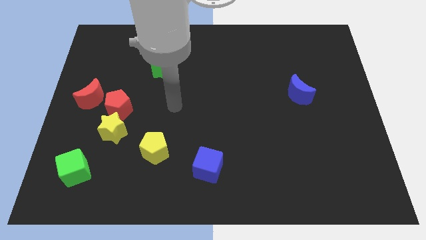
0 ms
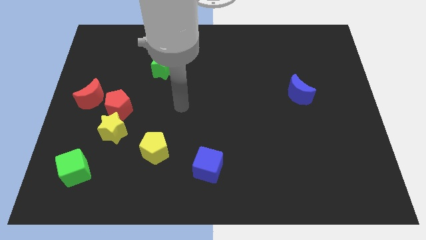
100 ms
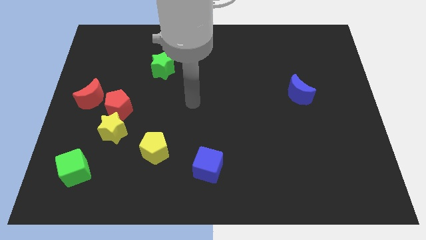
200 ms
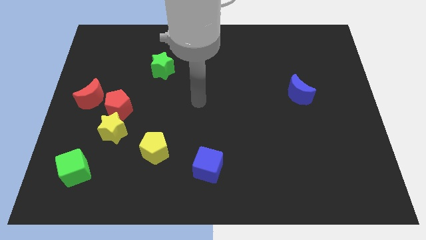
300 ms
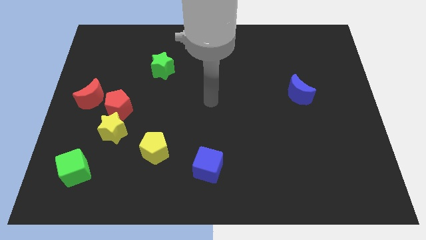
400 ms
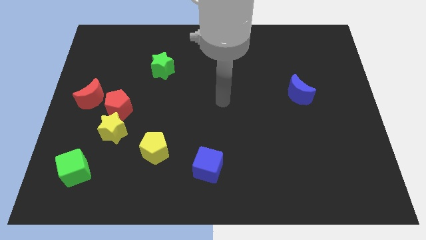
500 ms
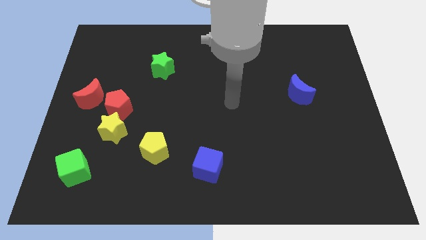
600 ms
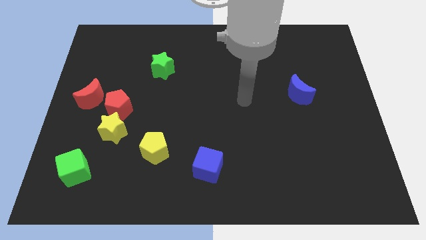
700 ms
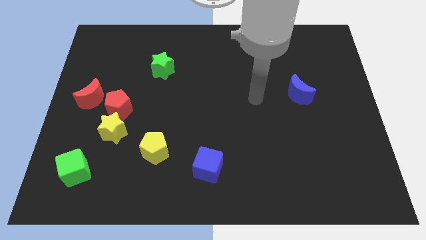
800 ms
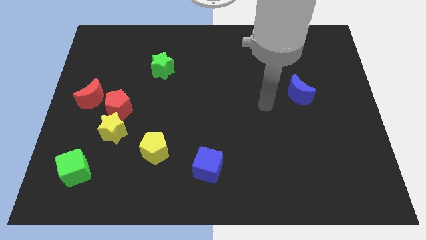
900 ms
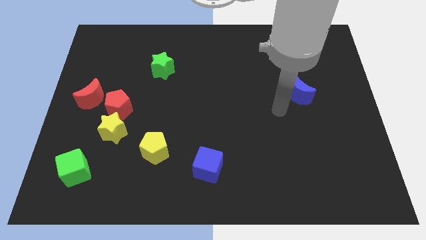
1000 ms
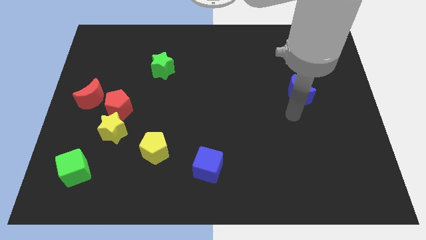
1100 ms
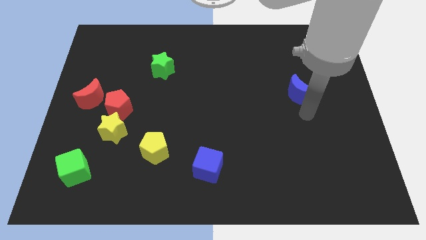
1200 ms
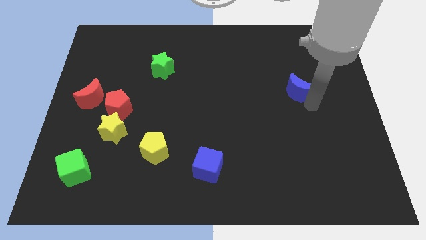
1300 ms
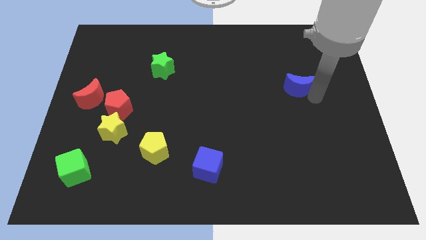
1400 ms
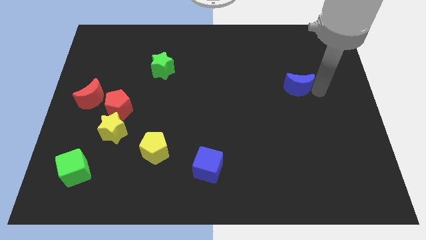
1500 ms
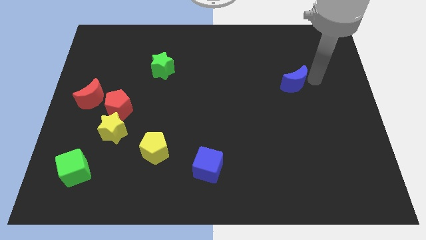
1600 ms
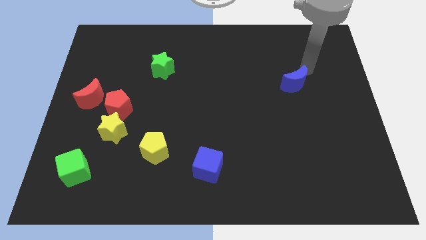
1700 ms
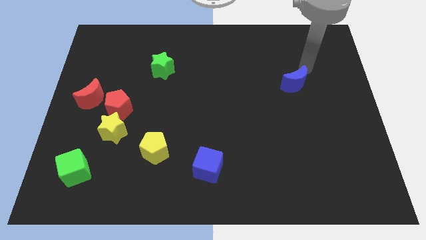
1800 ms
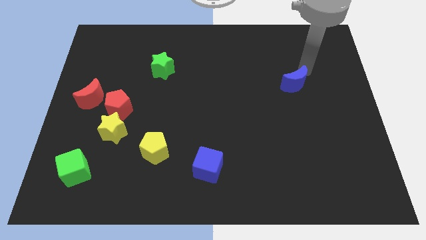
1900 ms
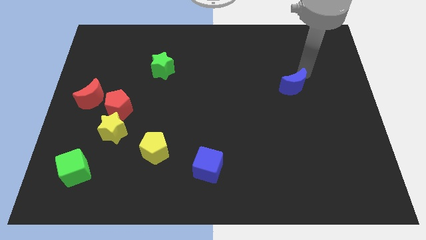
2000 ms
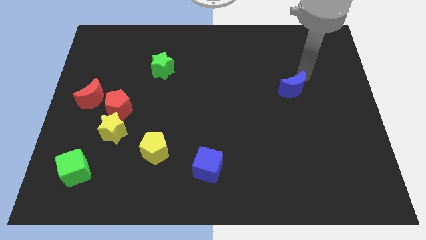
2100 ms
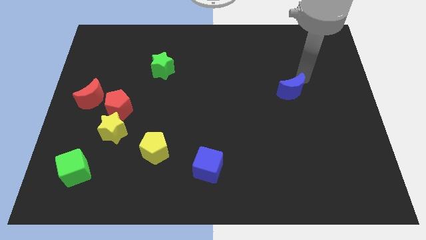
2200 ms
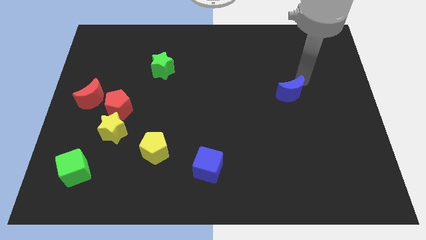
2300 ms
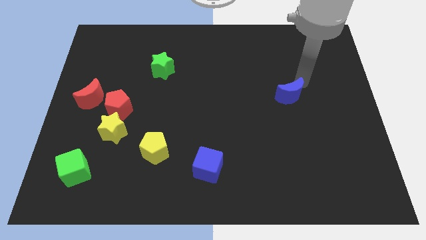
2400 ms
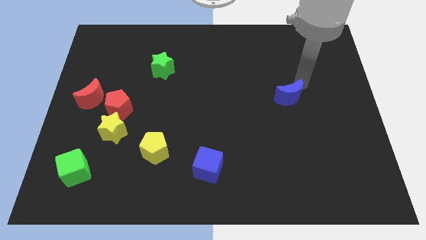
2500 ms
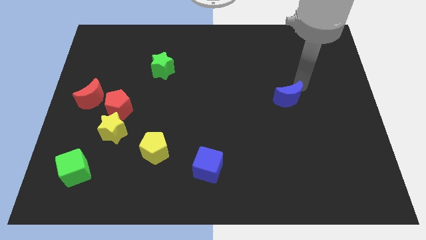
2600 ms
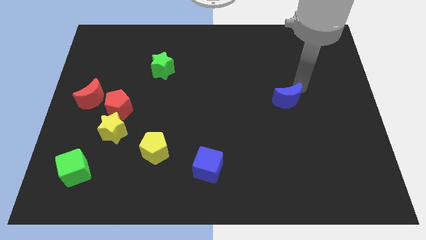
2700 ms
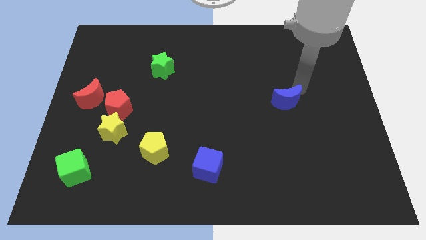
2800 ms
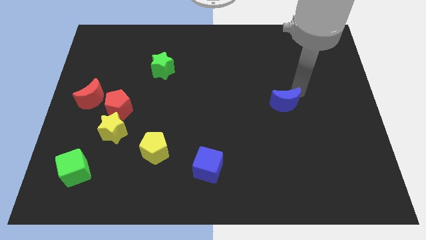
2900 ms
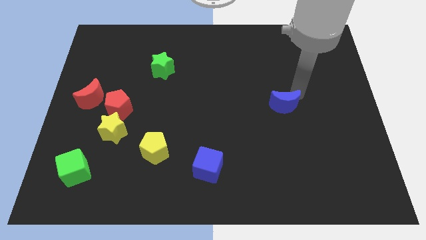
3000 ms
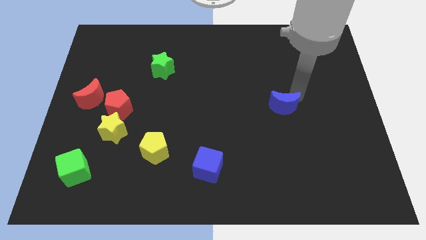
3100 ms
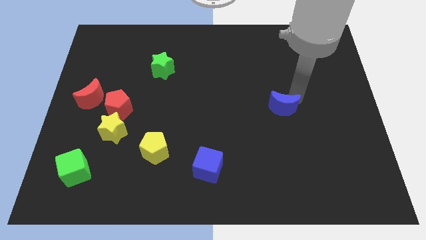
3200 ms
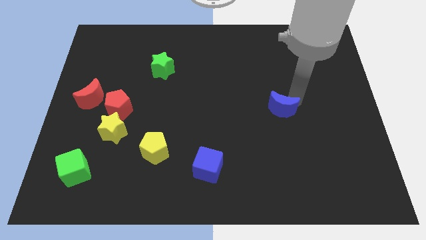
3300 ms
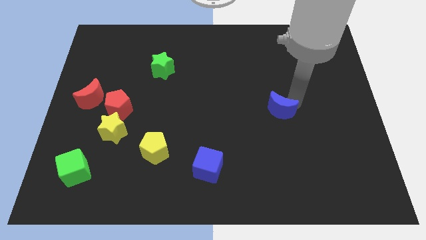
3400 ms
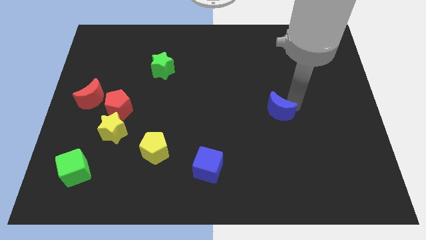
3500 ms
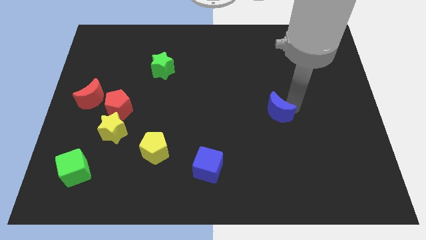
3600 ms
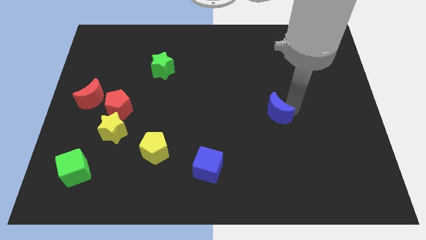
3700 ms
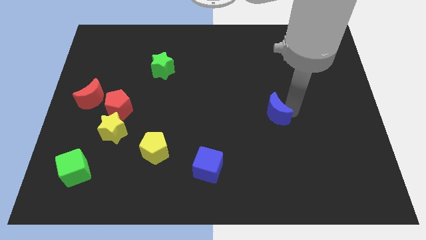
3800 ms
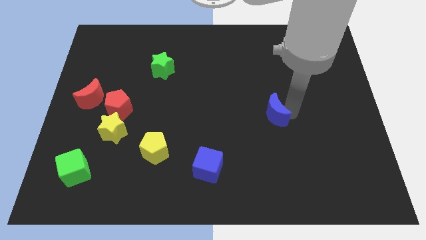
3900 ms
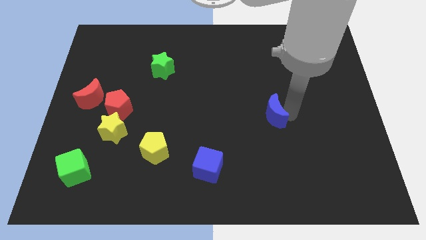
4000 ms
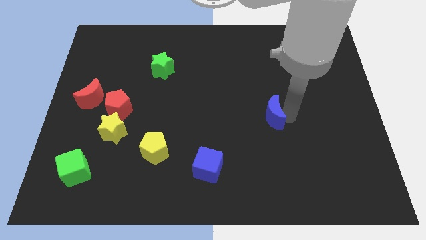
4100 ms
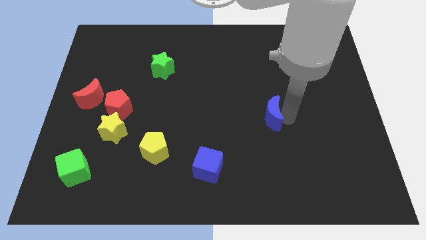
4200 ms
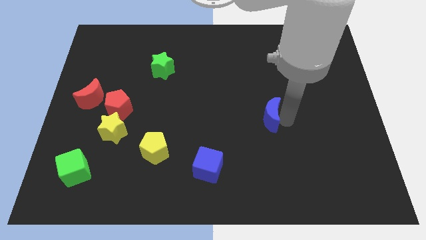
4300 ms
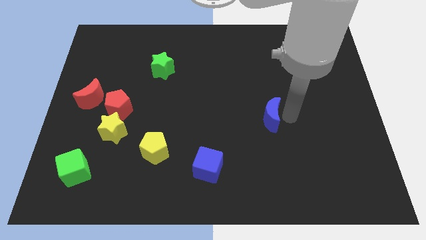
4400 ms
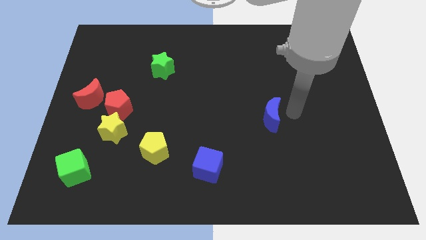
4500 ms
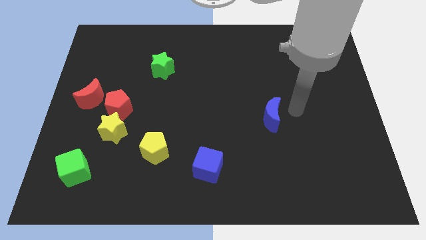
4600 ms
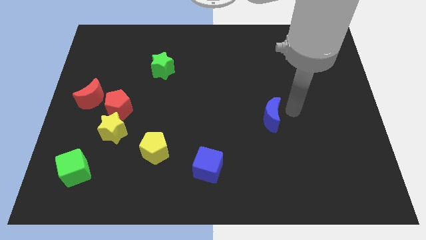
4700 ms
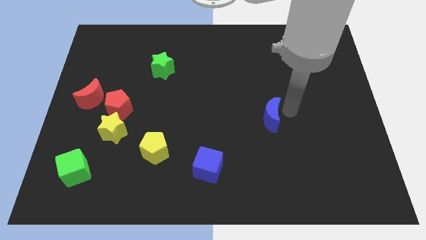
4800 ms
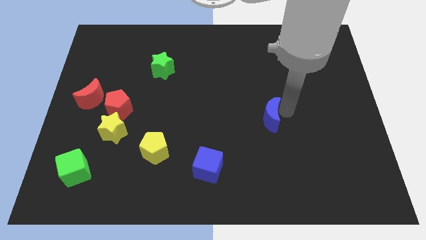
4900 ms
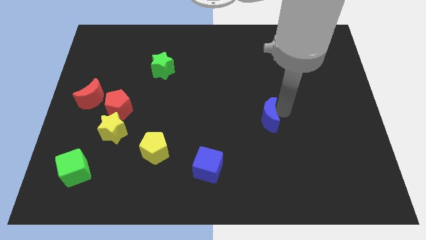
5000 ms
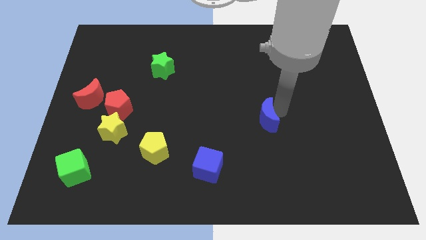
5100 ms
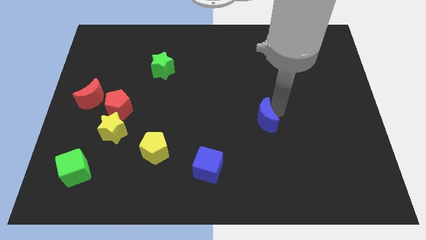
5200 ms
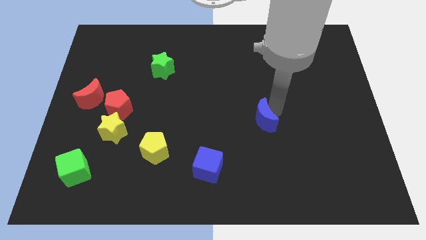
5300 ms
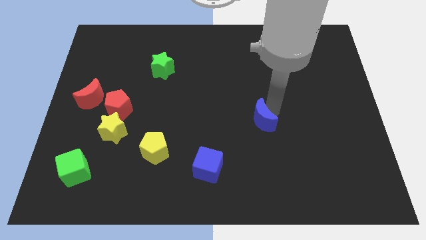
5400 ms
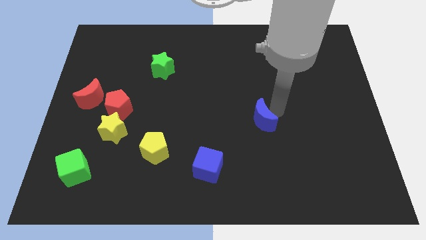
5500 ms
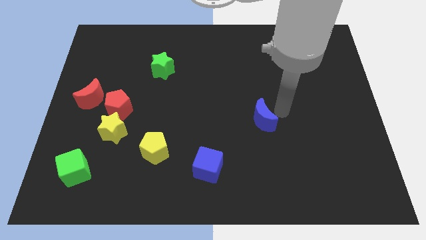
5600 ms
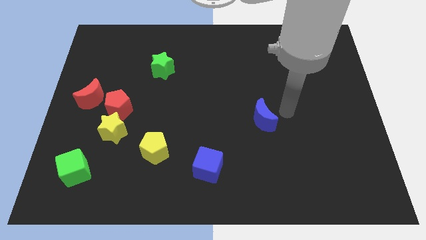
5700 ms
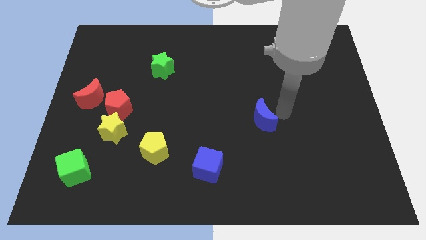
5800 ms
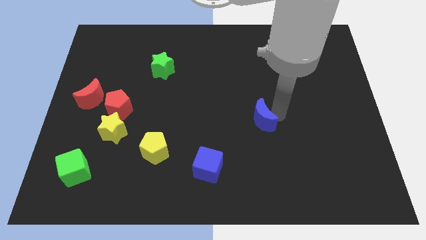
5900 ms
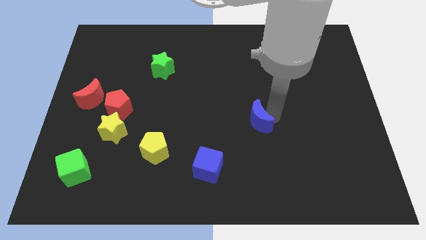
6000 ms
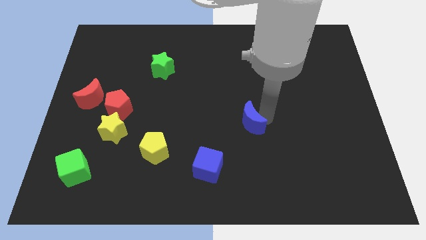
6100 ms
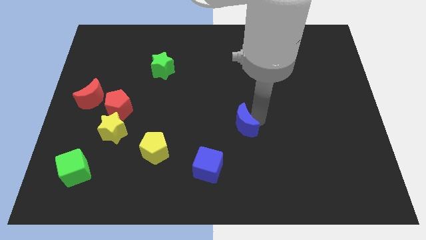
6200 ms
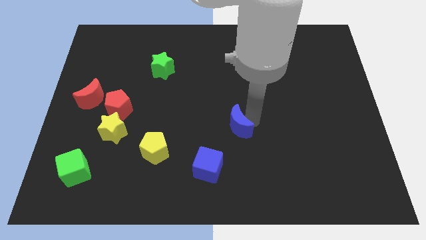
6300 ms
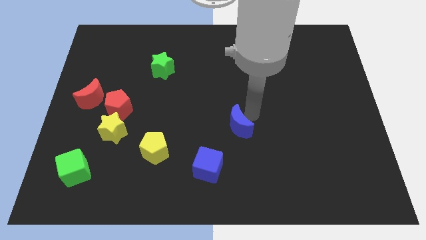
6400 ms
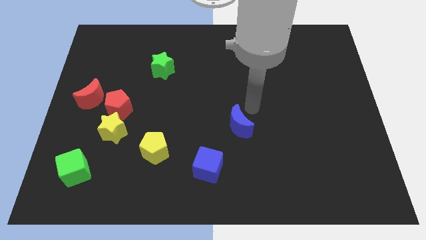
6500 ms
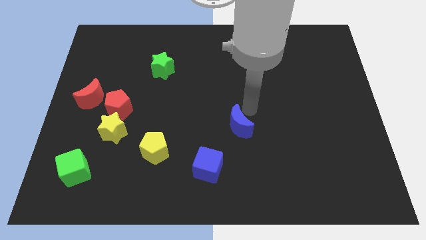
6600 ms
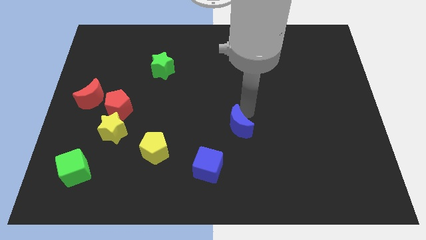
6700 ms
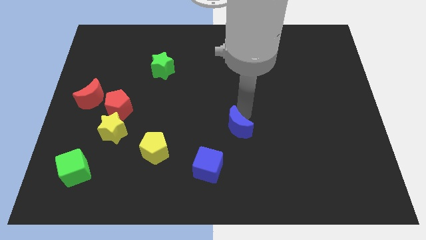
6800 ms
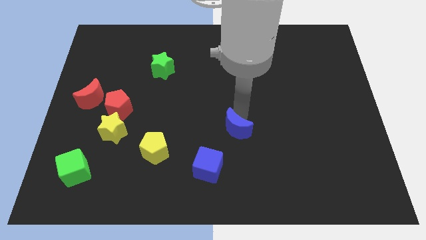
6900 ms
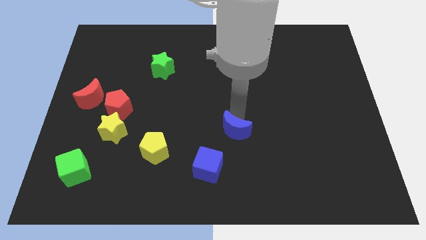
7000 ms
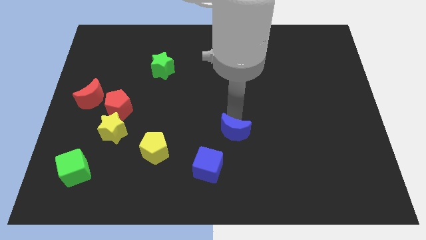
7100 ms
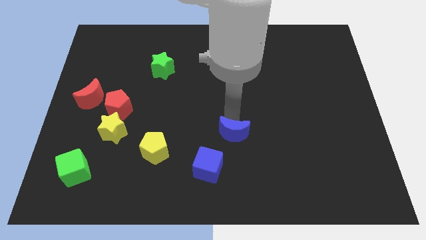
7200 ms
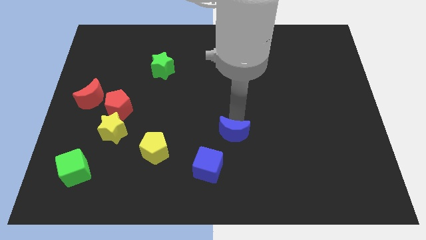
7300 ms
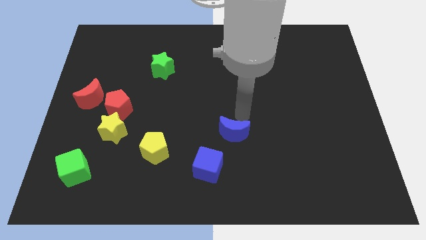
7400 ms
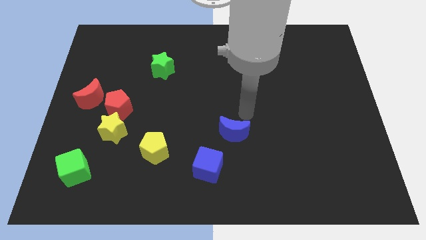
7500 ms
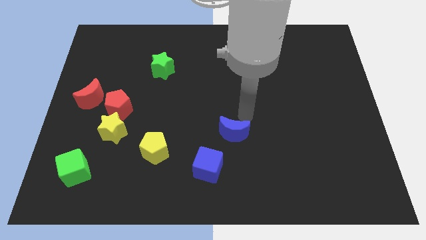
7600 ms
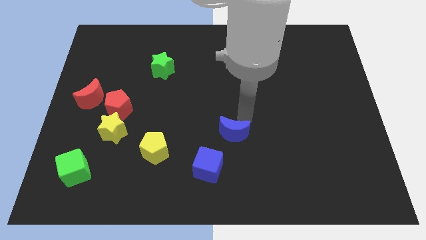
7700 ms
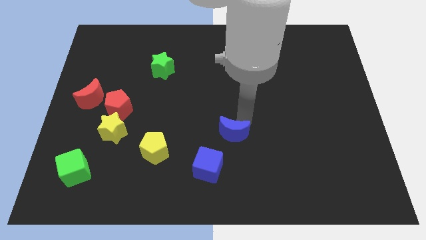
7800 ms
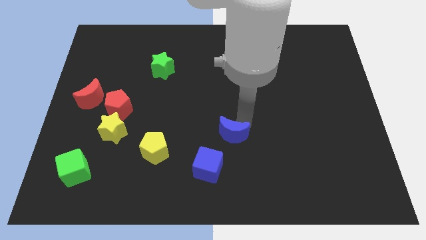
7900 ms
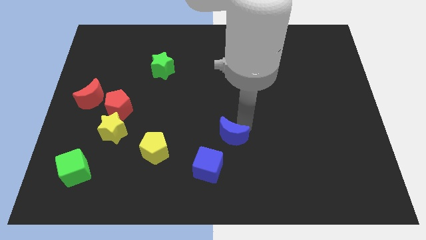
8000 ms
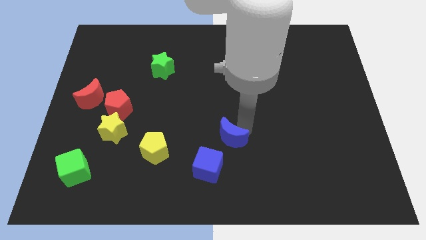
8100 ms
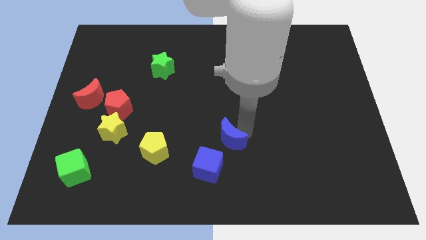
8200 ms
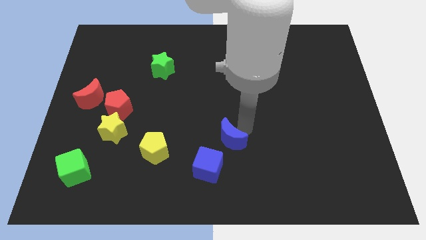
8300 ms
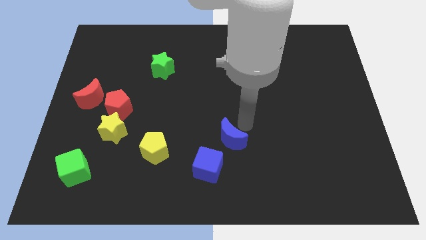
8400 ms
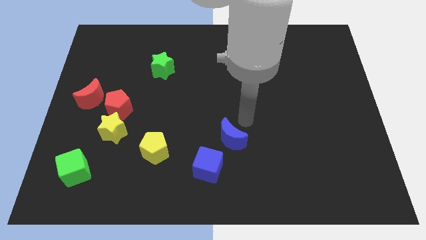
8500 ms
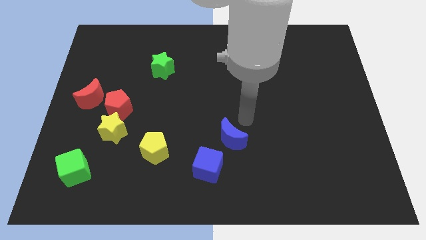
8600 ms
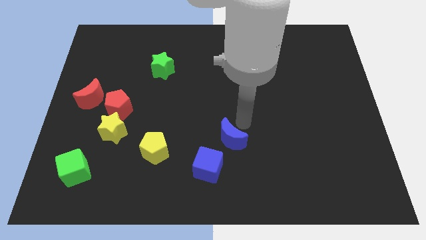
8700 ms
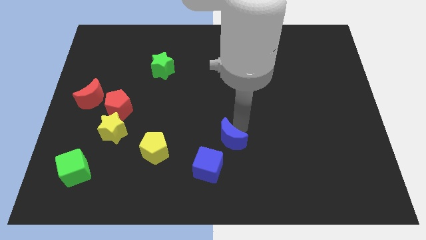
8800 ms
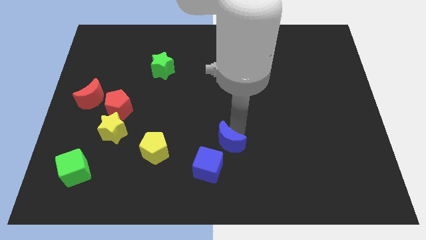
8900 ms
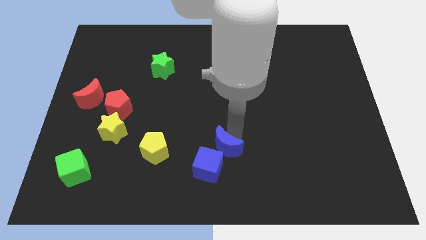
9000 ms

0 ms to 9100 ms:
slide the blue moon to the blue cube
